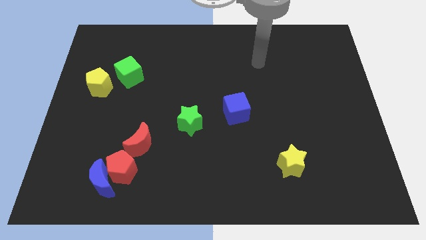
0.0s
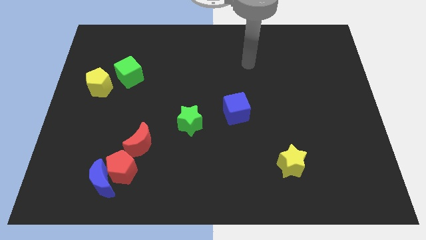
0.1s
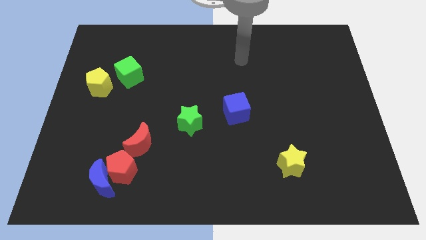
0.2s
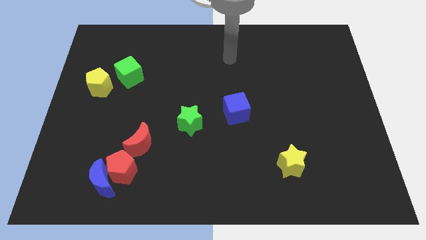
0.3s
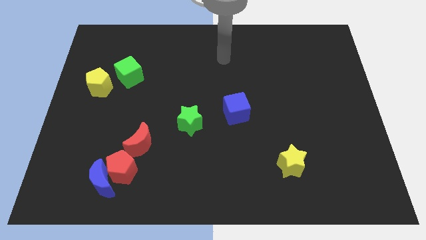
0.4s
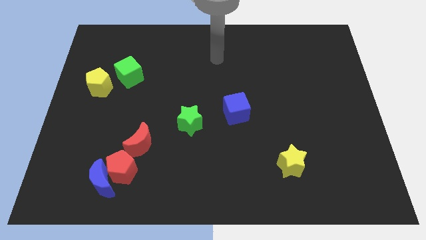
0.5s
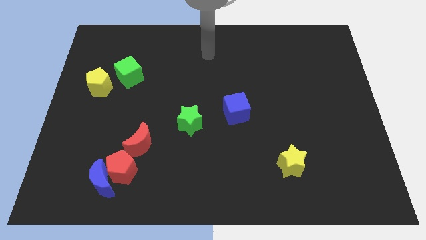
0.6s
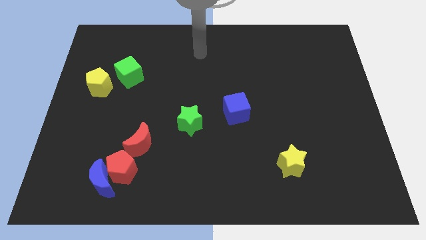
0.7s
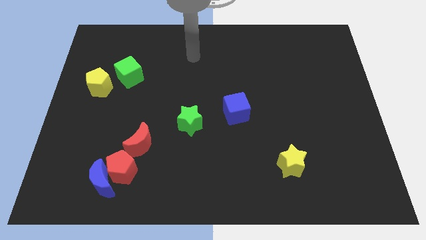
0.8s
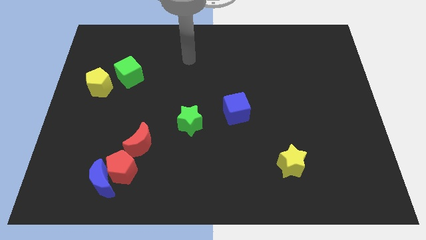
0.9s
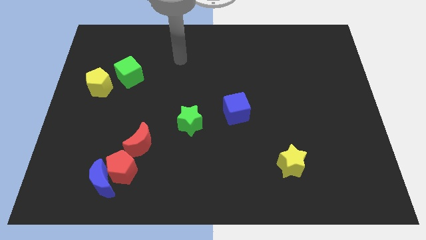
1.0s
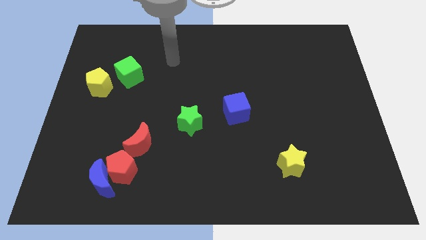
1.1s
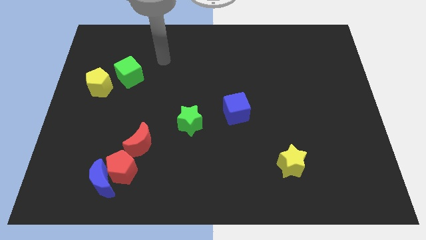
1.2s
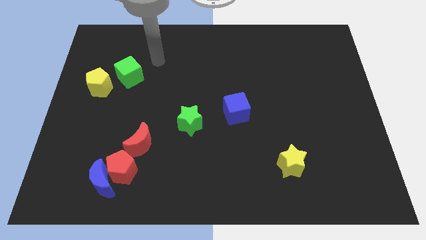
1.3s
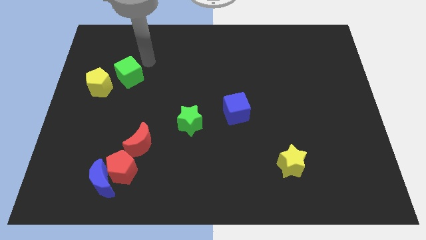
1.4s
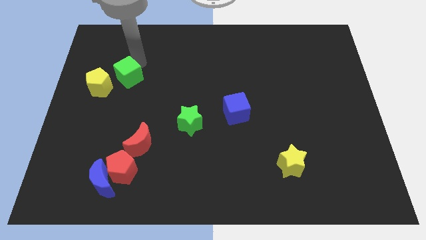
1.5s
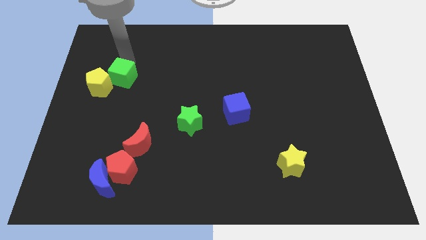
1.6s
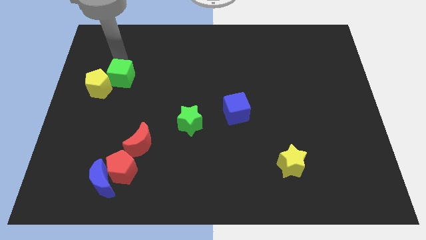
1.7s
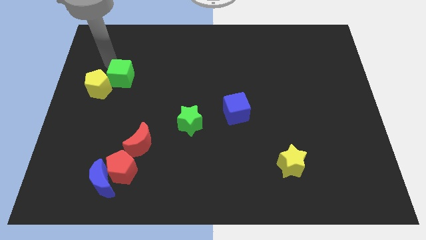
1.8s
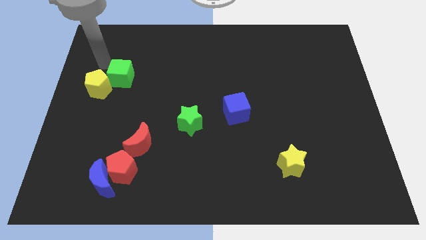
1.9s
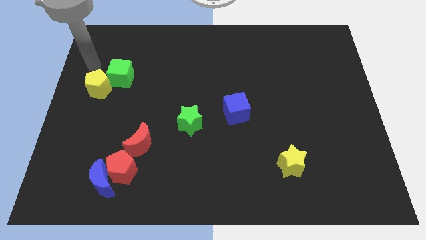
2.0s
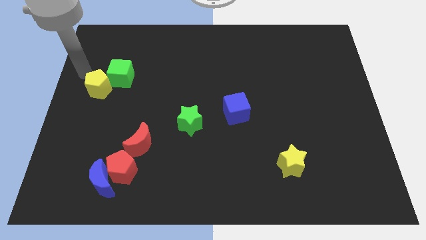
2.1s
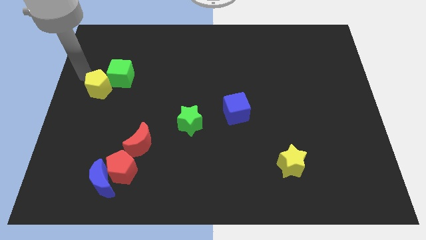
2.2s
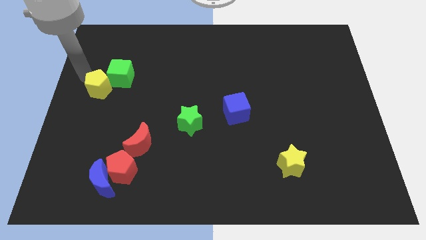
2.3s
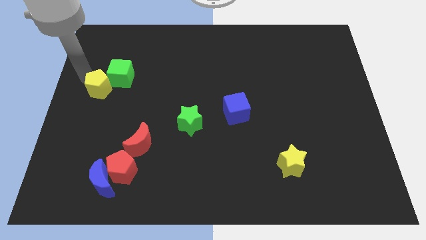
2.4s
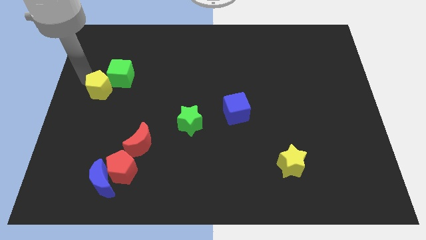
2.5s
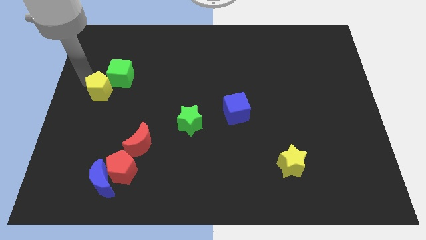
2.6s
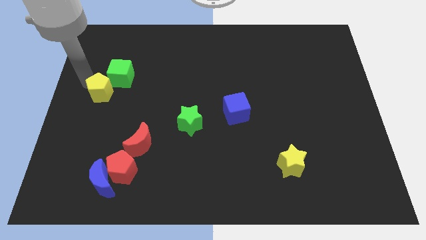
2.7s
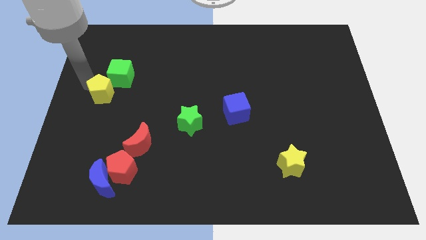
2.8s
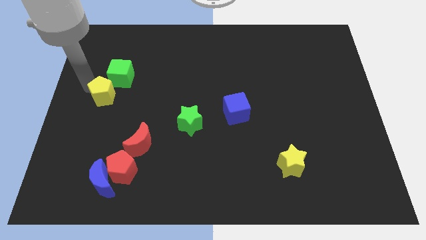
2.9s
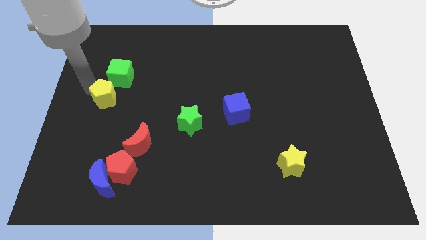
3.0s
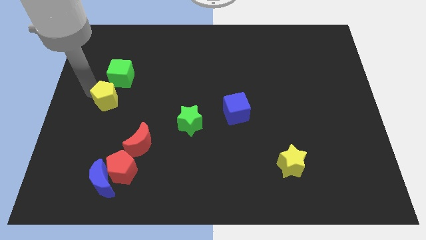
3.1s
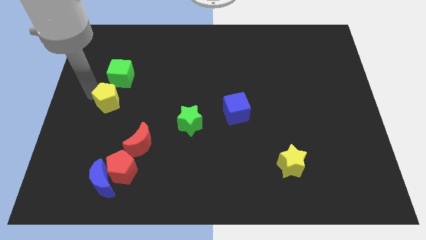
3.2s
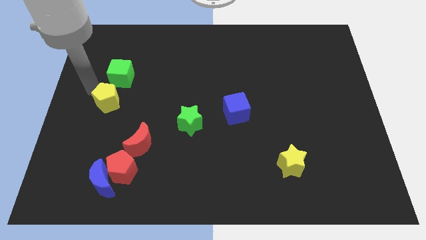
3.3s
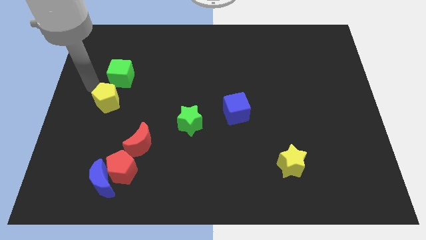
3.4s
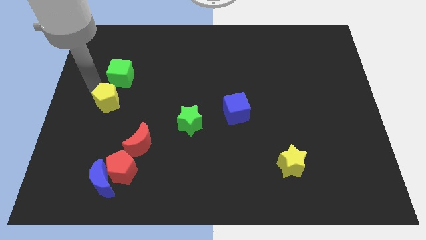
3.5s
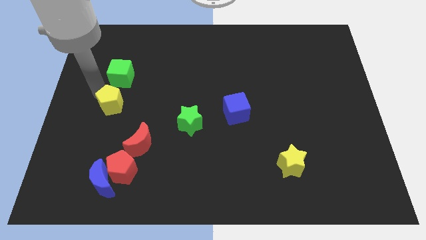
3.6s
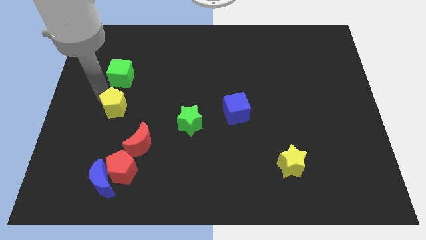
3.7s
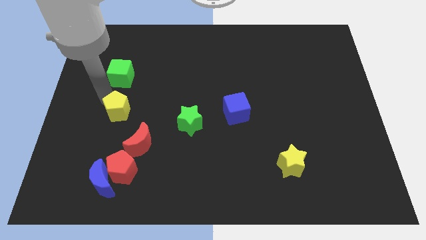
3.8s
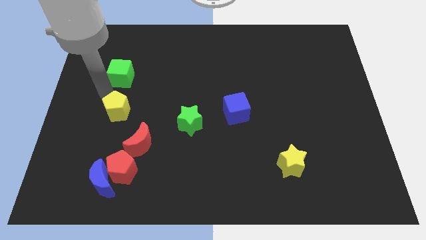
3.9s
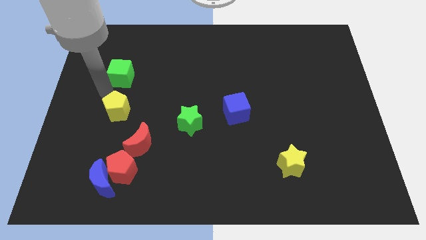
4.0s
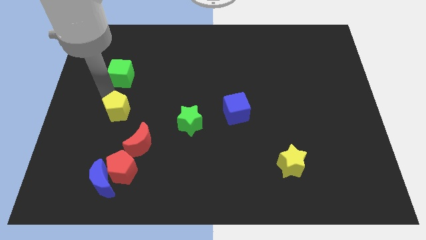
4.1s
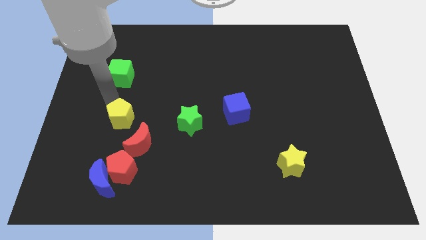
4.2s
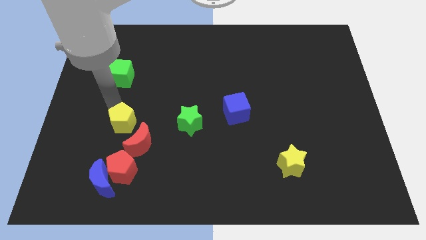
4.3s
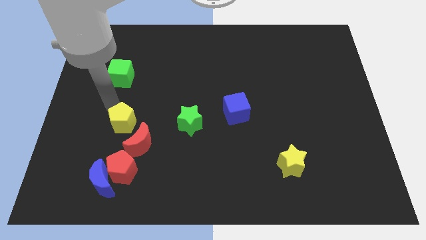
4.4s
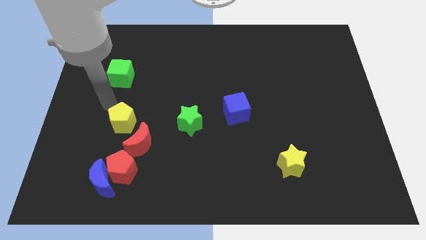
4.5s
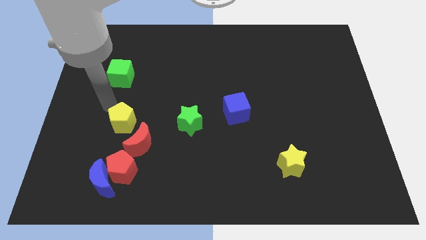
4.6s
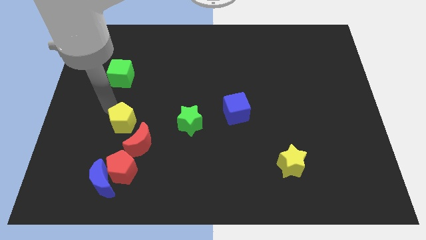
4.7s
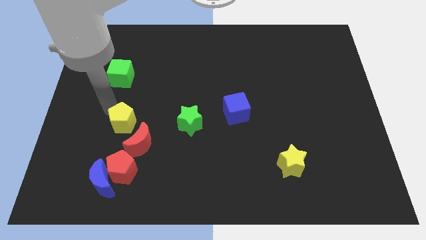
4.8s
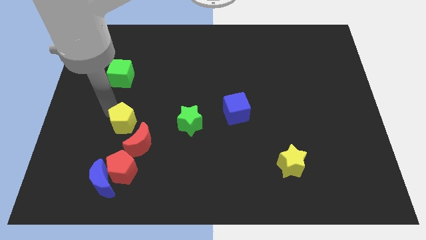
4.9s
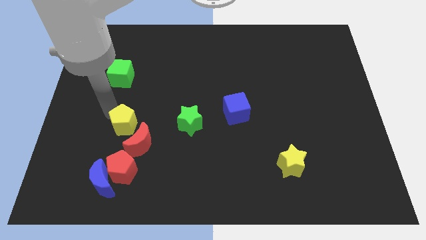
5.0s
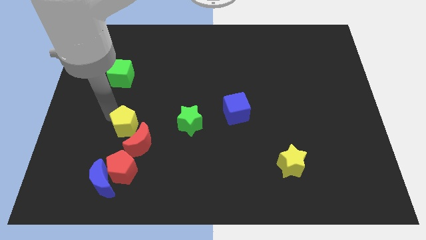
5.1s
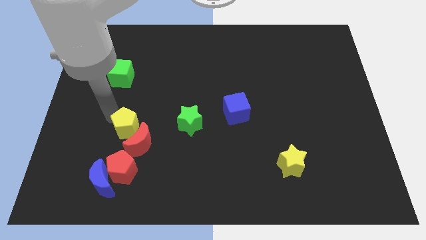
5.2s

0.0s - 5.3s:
put the yellow pentagon next to the red moon

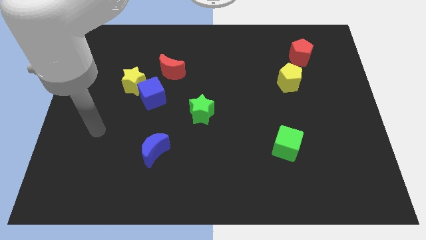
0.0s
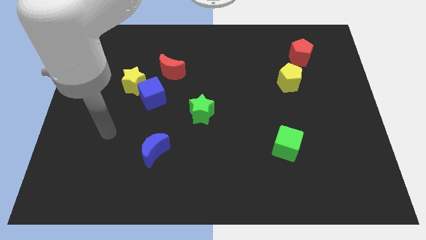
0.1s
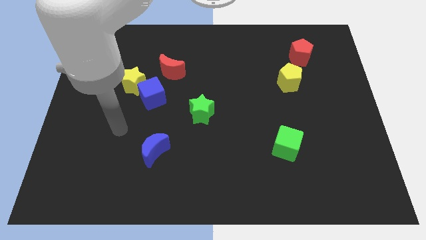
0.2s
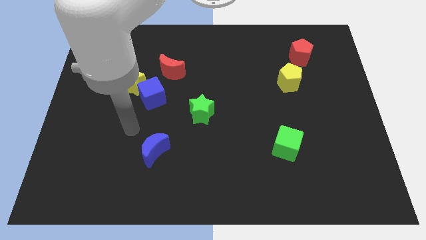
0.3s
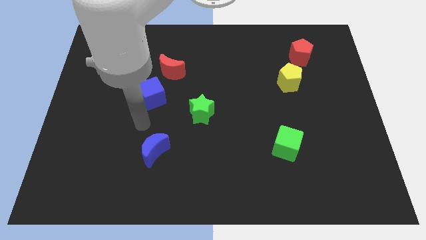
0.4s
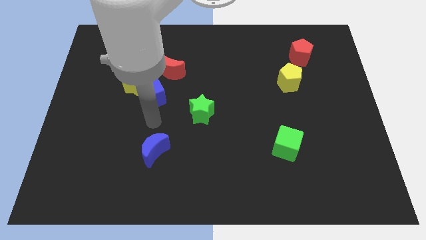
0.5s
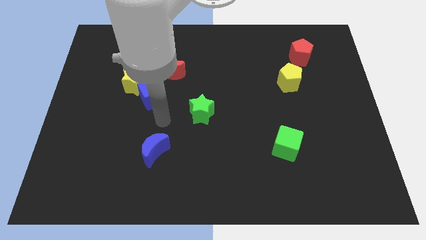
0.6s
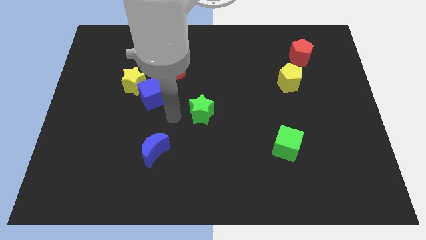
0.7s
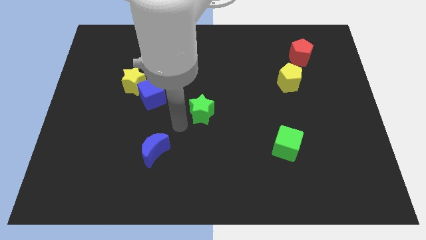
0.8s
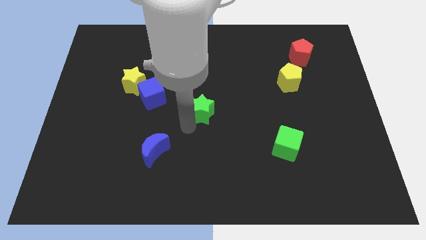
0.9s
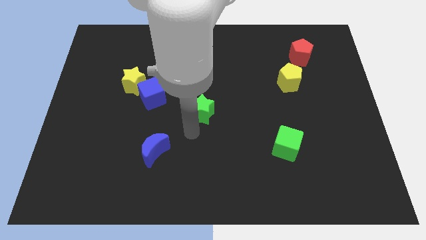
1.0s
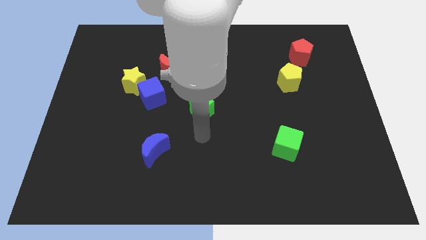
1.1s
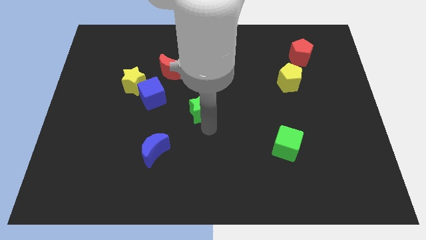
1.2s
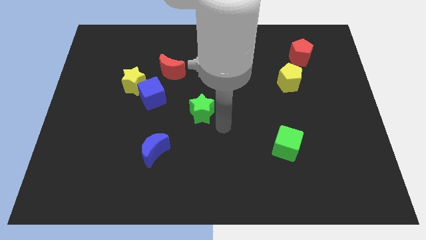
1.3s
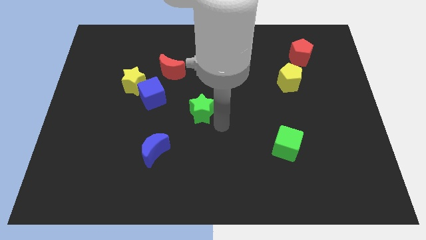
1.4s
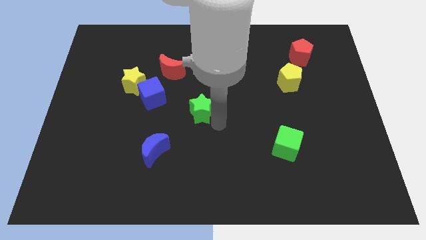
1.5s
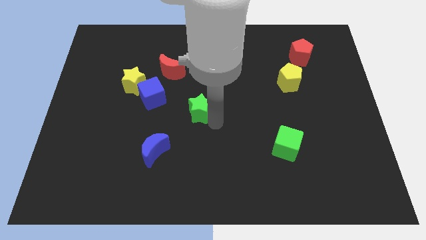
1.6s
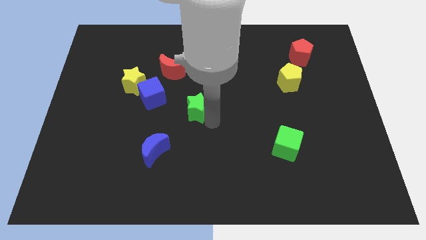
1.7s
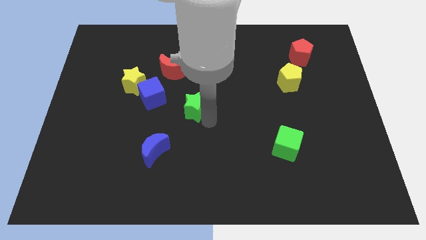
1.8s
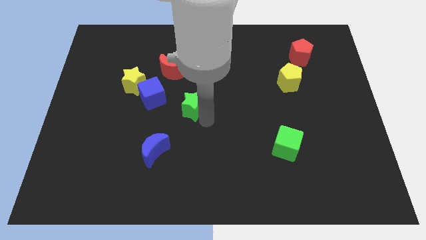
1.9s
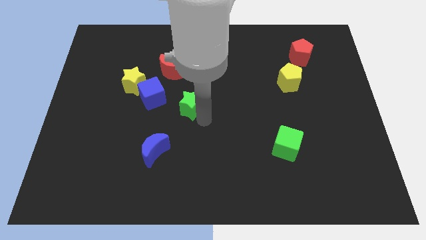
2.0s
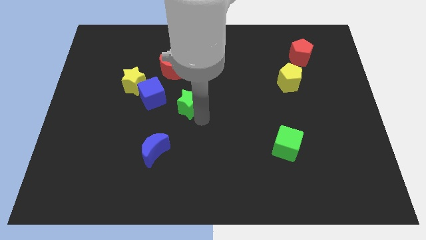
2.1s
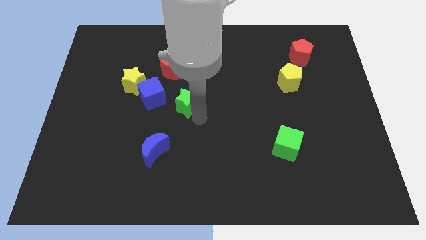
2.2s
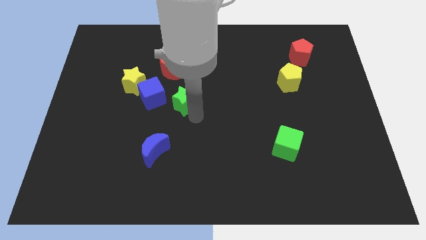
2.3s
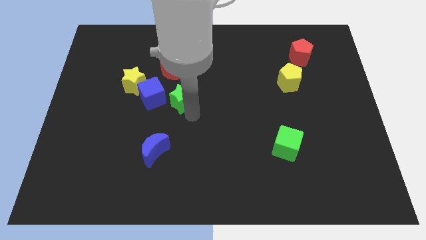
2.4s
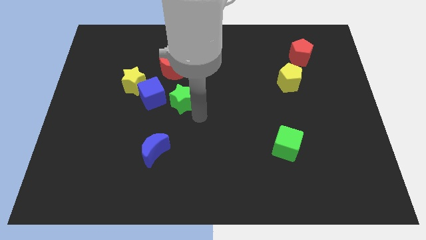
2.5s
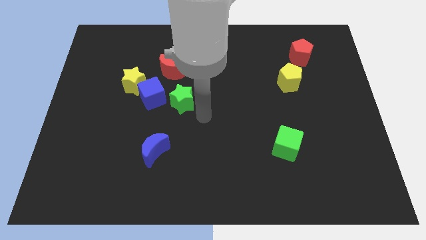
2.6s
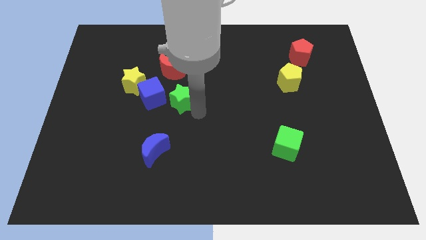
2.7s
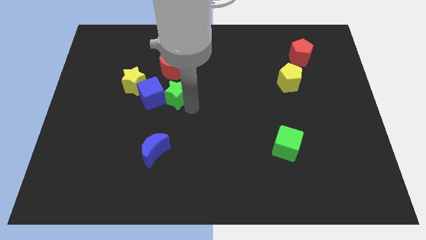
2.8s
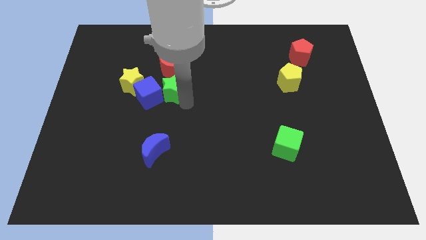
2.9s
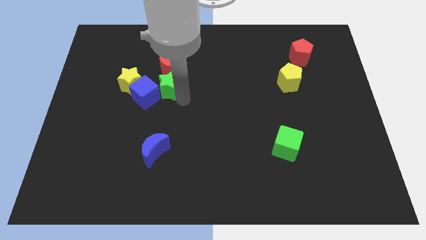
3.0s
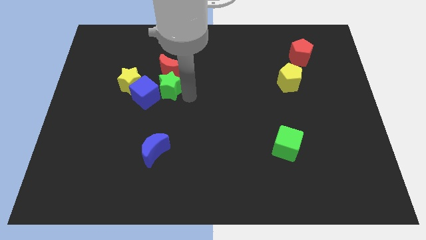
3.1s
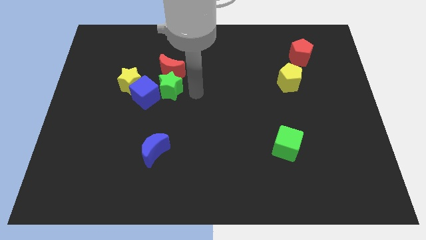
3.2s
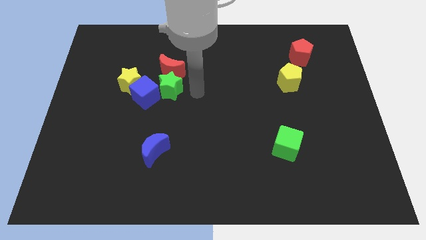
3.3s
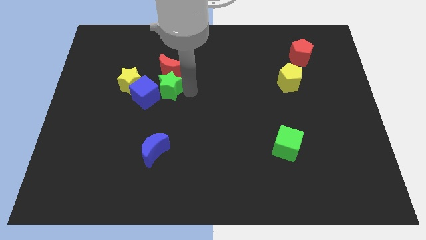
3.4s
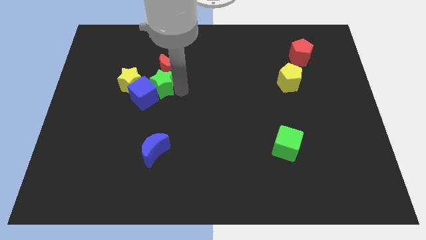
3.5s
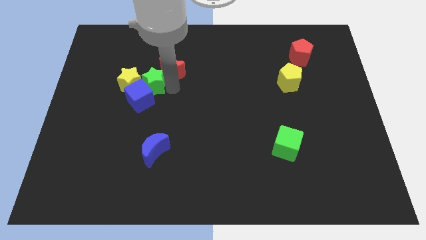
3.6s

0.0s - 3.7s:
slide the green star to the yellow star
